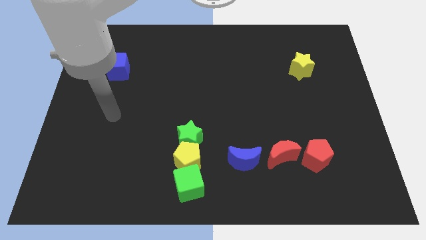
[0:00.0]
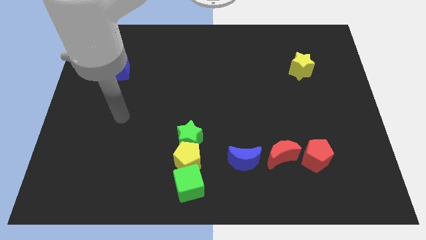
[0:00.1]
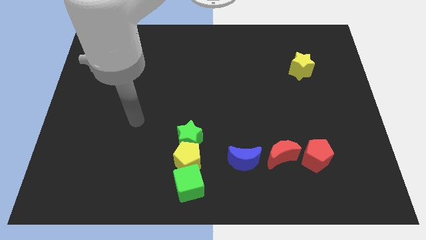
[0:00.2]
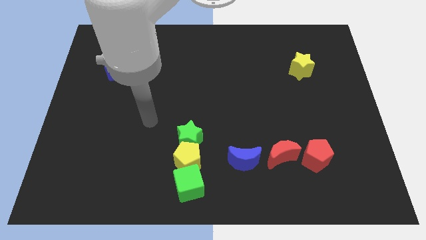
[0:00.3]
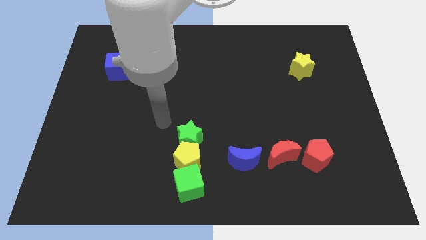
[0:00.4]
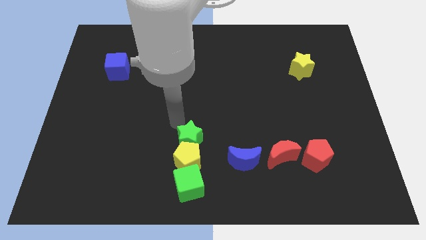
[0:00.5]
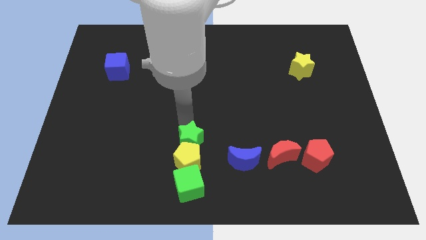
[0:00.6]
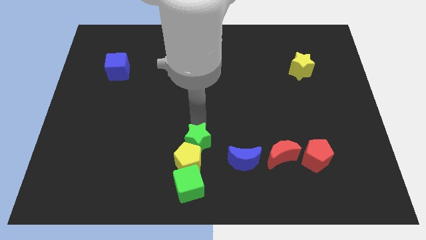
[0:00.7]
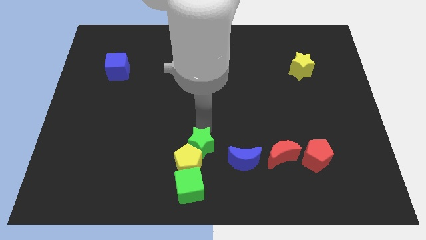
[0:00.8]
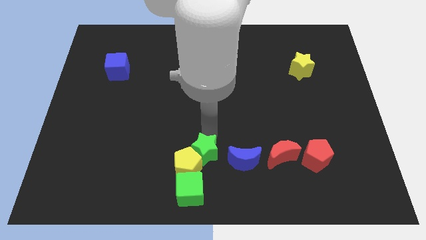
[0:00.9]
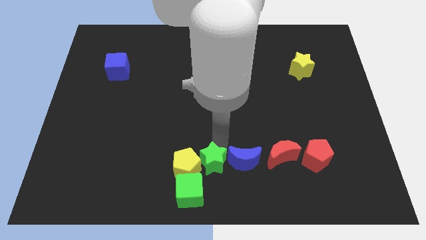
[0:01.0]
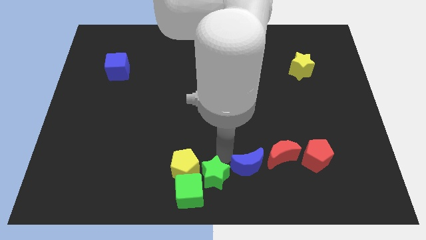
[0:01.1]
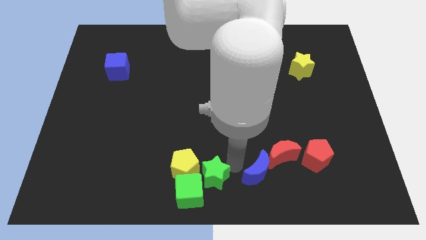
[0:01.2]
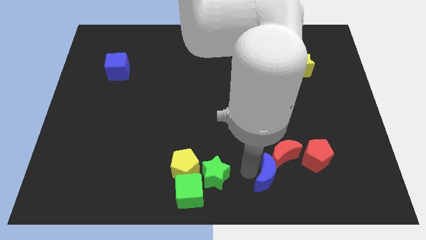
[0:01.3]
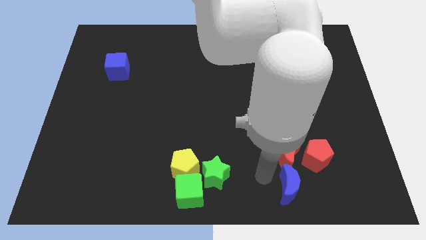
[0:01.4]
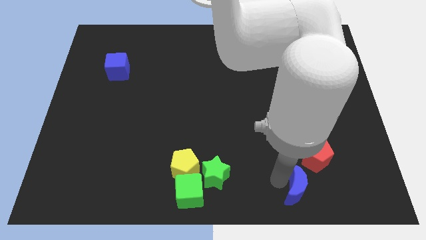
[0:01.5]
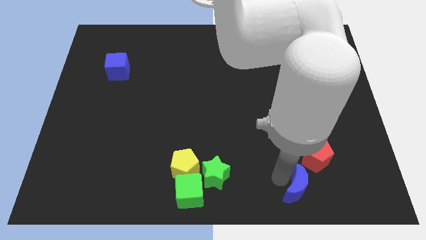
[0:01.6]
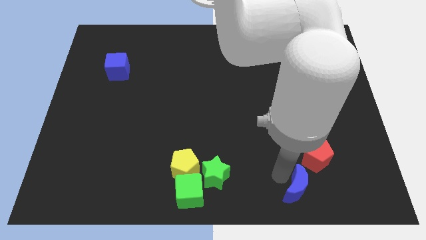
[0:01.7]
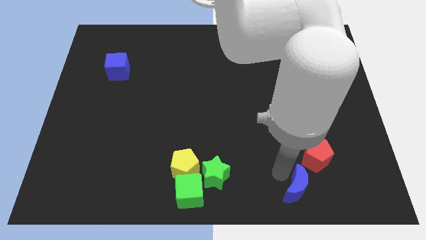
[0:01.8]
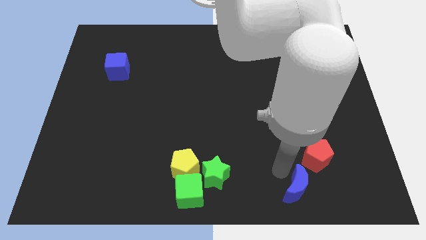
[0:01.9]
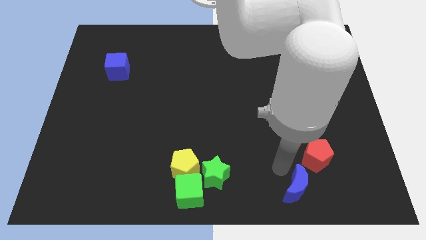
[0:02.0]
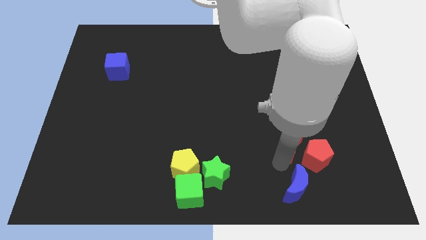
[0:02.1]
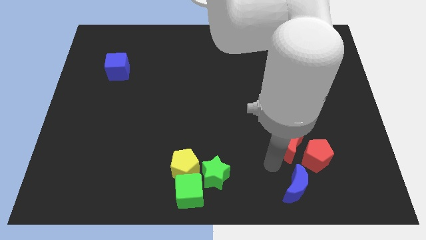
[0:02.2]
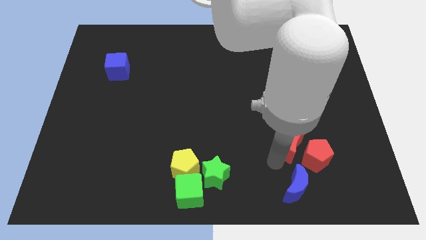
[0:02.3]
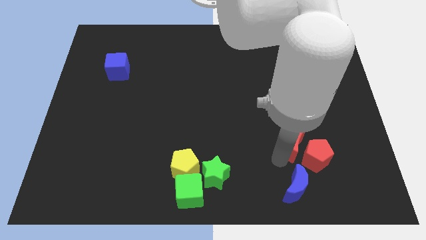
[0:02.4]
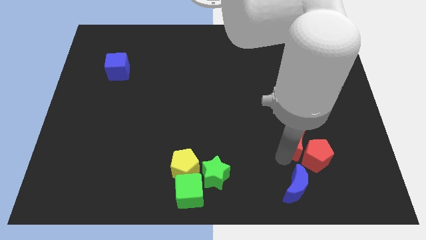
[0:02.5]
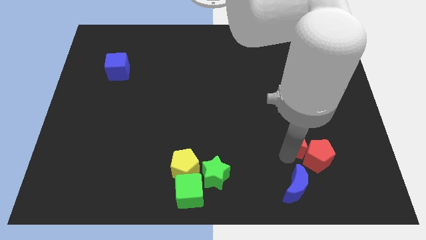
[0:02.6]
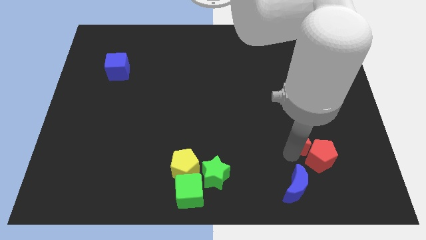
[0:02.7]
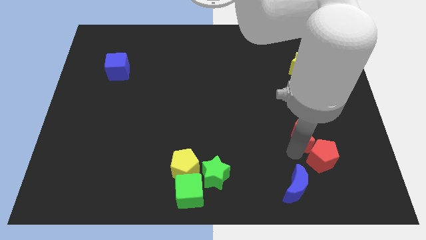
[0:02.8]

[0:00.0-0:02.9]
slightly move the red moon upwards and right

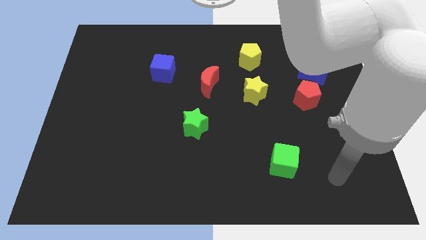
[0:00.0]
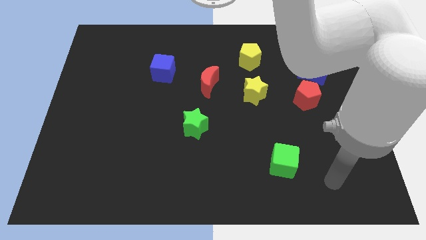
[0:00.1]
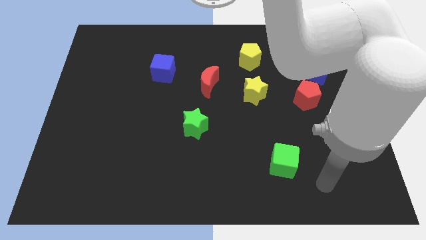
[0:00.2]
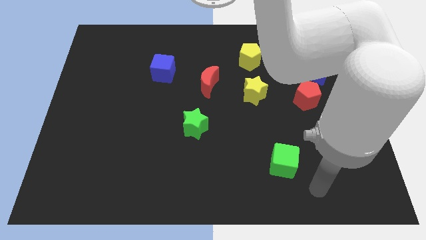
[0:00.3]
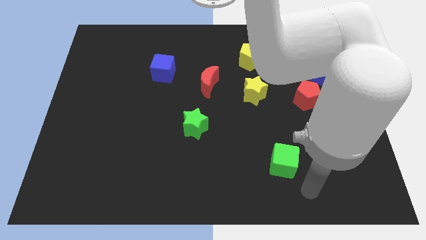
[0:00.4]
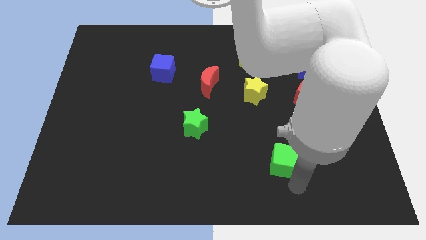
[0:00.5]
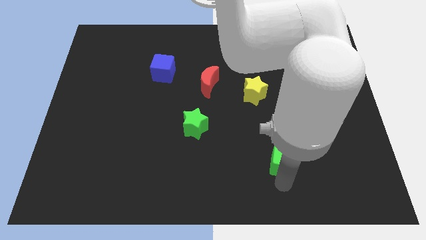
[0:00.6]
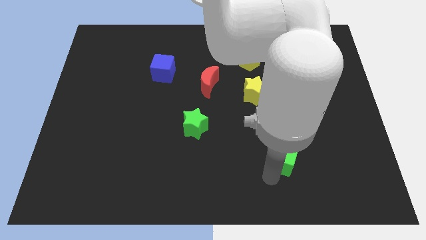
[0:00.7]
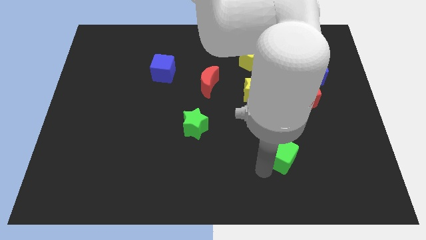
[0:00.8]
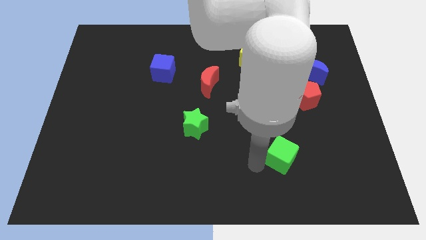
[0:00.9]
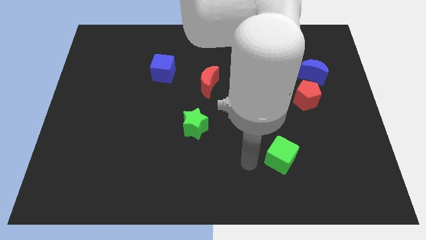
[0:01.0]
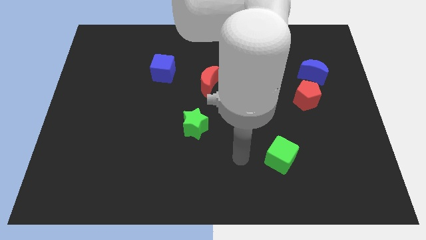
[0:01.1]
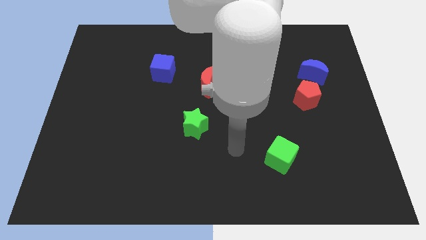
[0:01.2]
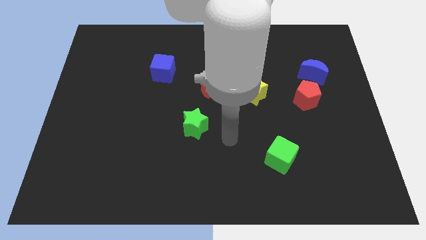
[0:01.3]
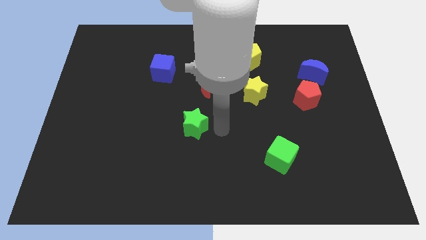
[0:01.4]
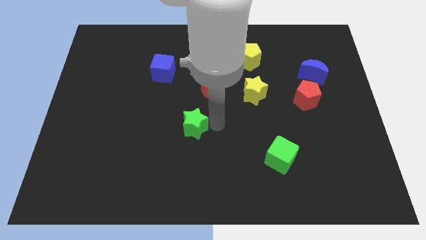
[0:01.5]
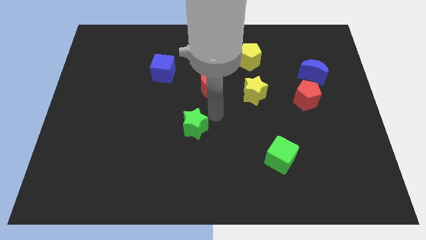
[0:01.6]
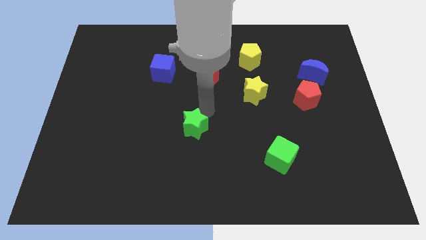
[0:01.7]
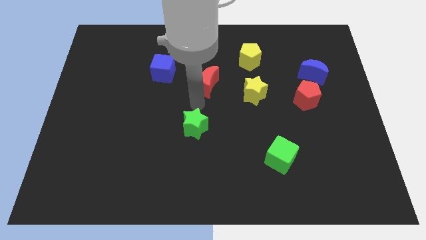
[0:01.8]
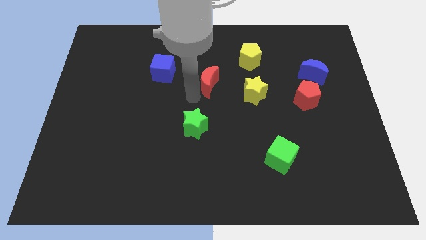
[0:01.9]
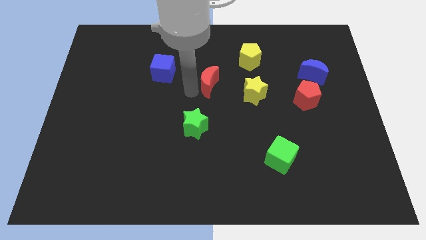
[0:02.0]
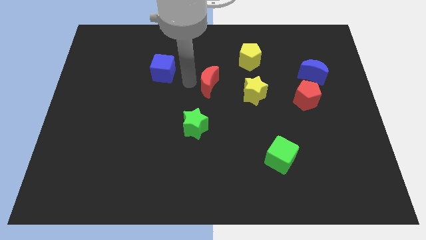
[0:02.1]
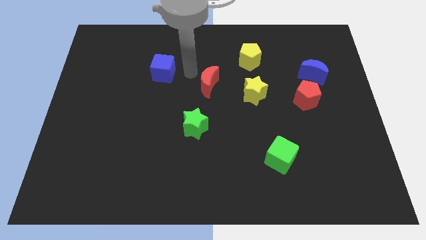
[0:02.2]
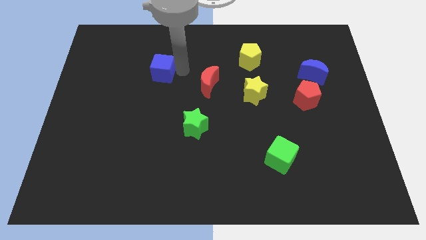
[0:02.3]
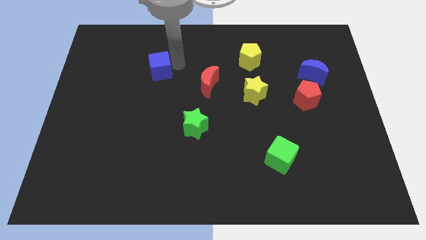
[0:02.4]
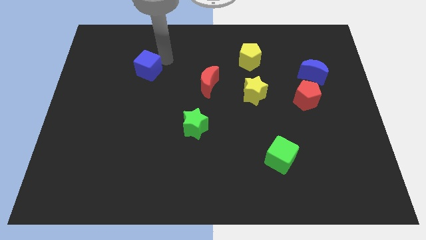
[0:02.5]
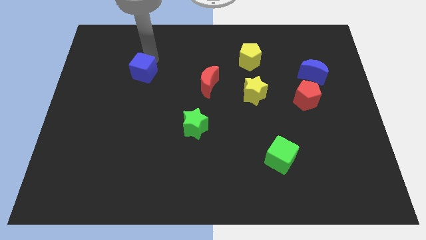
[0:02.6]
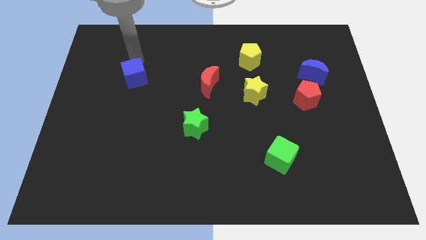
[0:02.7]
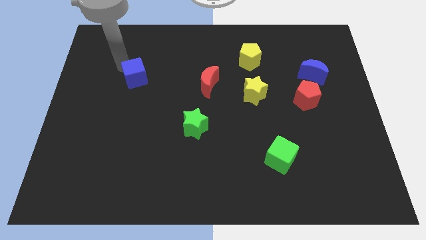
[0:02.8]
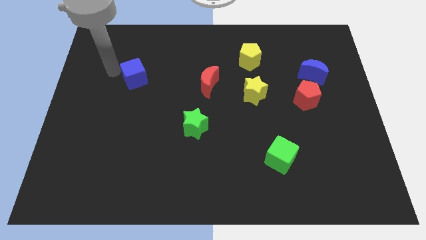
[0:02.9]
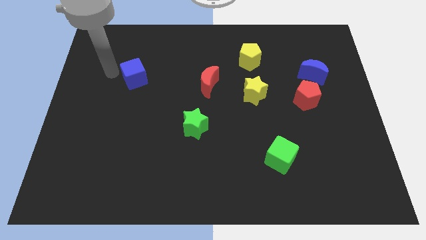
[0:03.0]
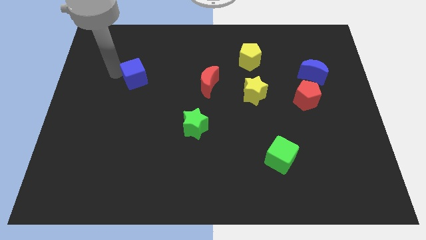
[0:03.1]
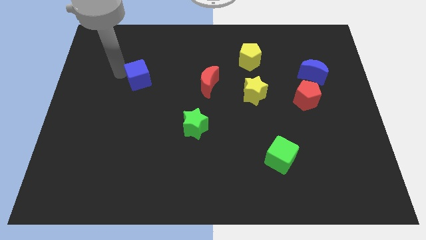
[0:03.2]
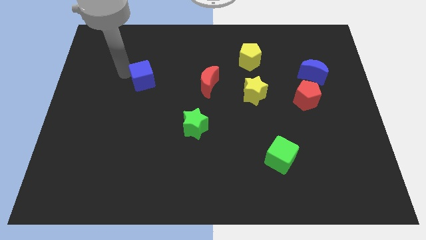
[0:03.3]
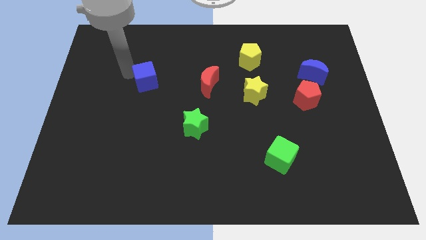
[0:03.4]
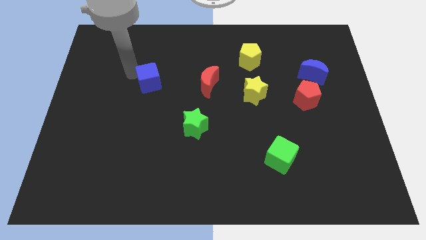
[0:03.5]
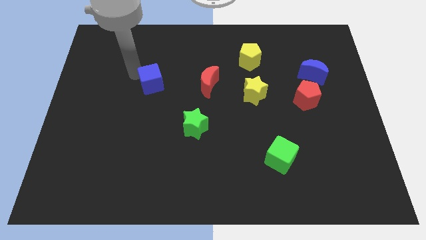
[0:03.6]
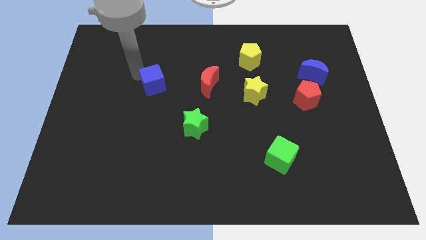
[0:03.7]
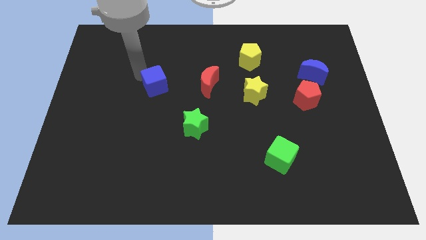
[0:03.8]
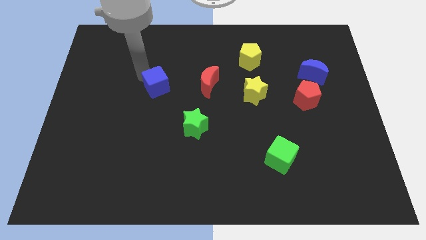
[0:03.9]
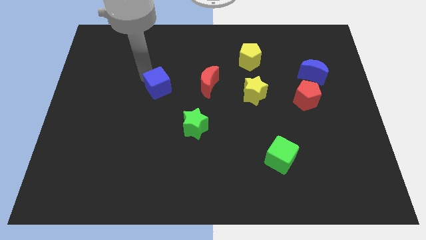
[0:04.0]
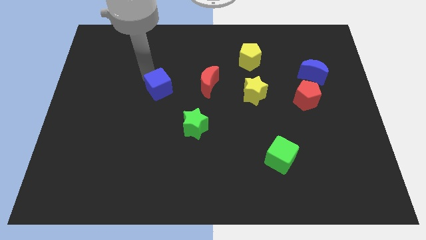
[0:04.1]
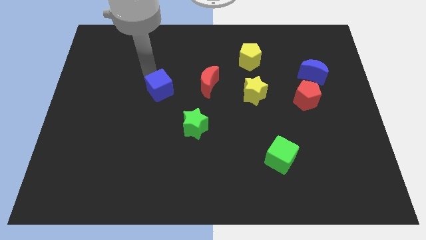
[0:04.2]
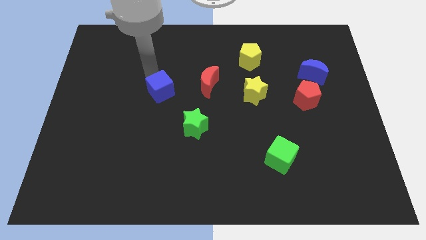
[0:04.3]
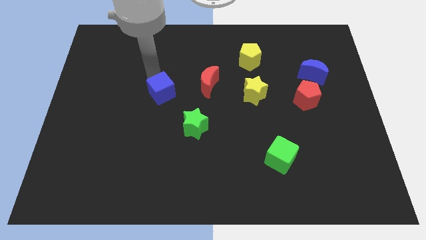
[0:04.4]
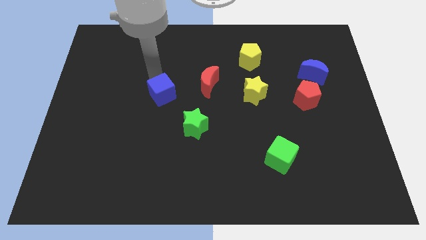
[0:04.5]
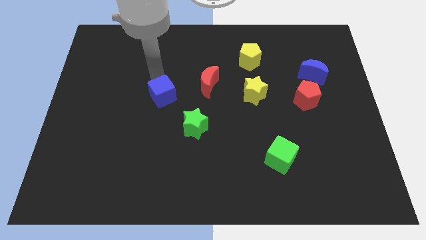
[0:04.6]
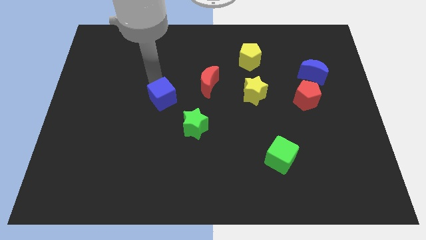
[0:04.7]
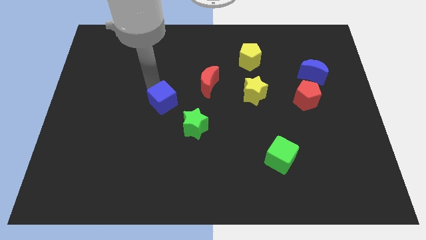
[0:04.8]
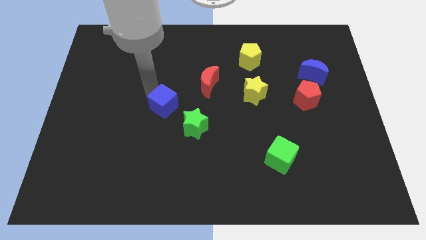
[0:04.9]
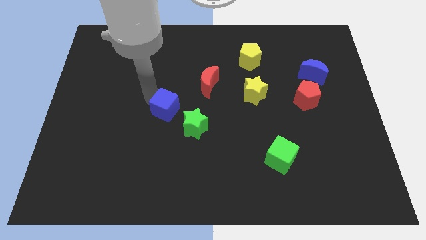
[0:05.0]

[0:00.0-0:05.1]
move the blue cube diagonally downwards and right slightly

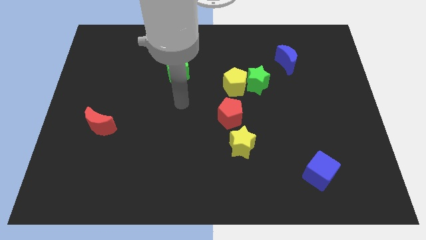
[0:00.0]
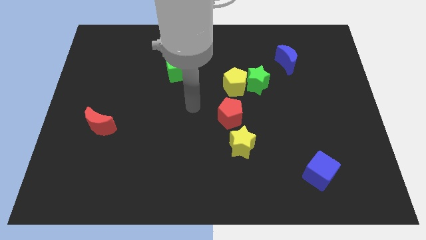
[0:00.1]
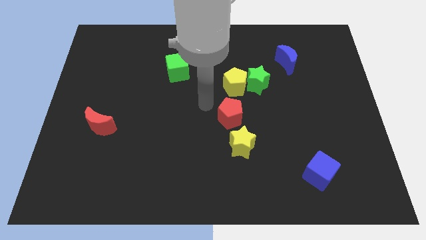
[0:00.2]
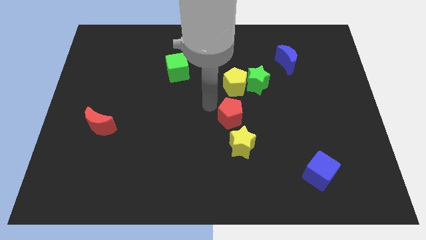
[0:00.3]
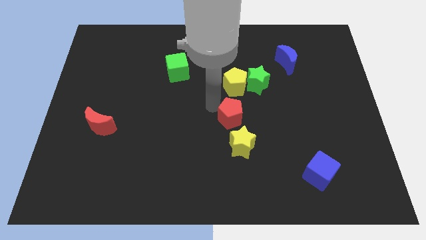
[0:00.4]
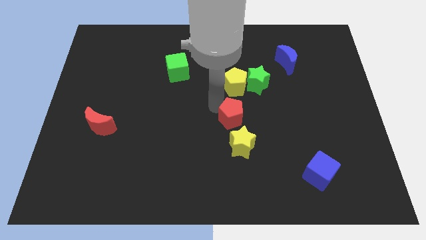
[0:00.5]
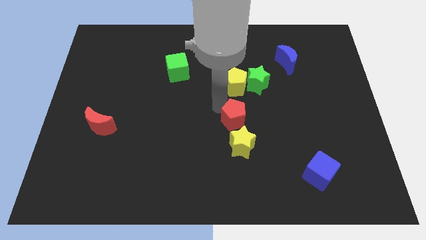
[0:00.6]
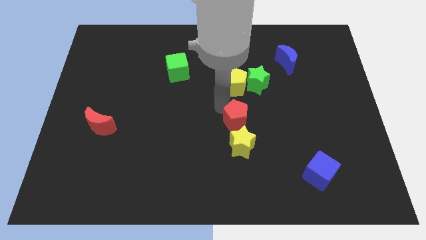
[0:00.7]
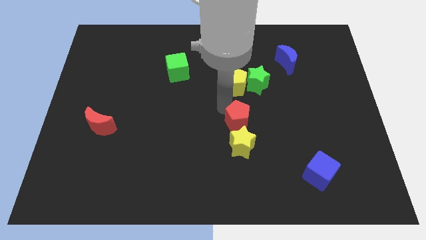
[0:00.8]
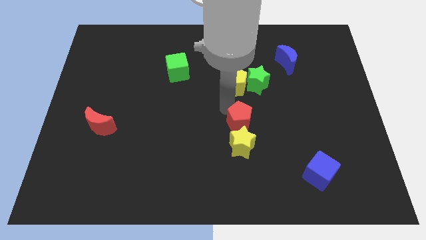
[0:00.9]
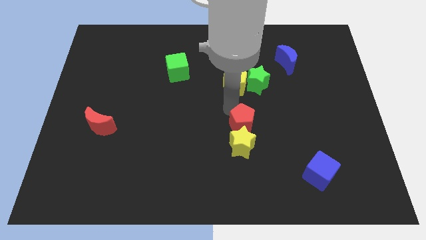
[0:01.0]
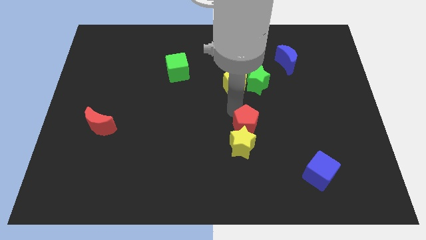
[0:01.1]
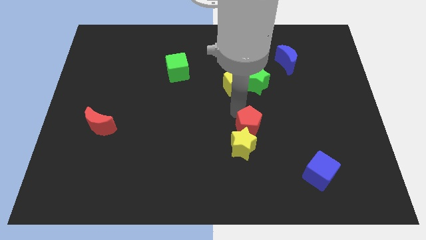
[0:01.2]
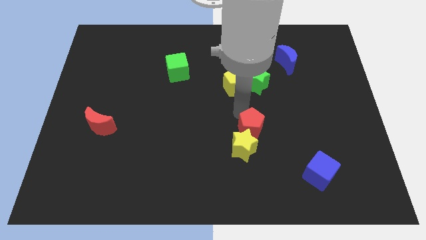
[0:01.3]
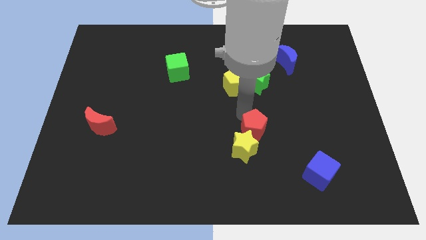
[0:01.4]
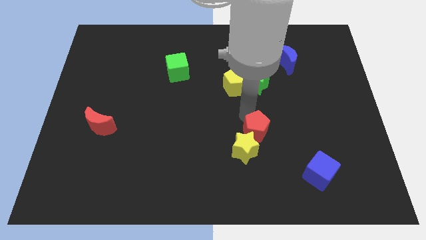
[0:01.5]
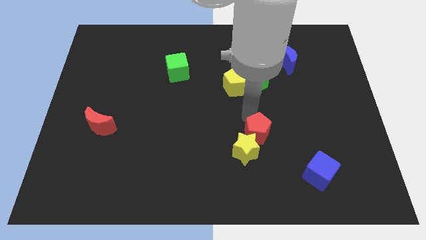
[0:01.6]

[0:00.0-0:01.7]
move the red pentagon somewhat downwards and right diagonally
